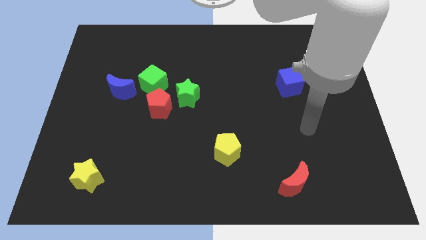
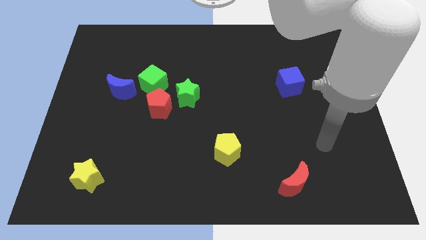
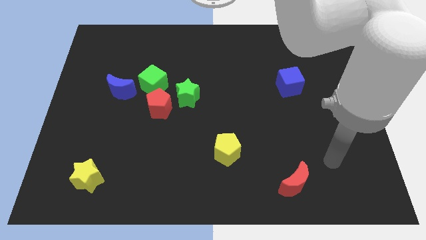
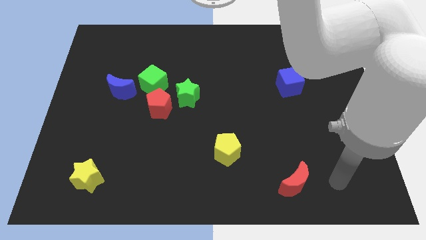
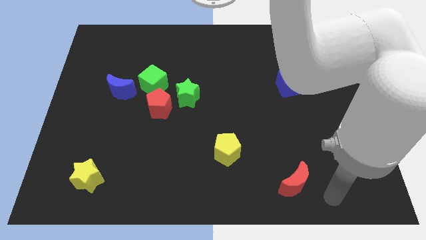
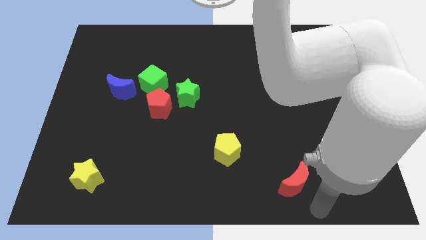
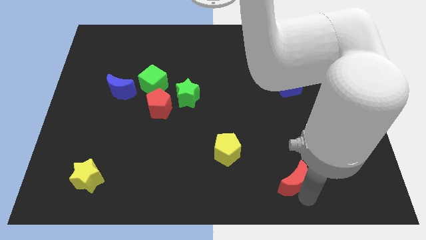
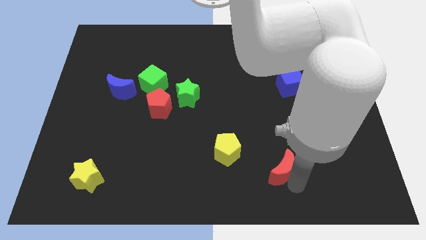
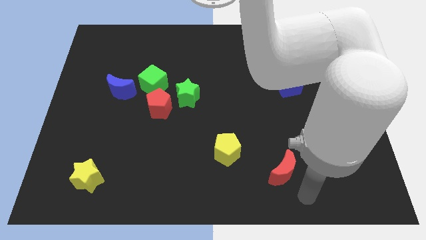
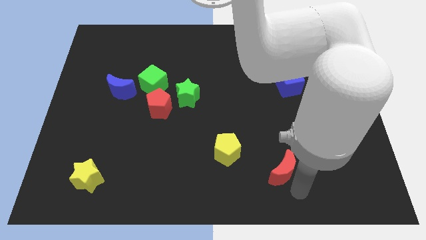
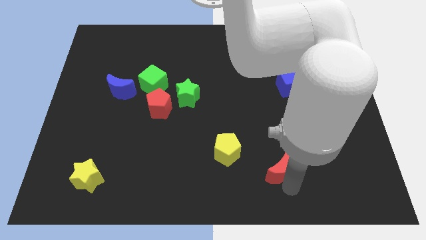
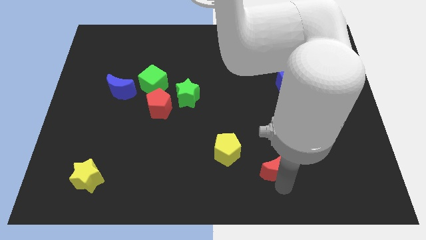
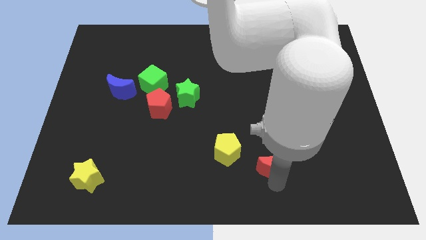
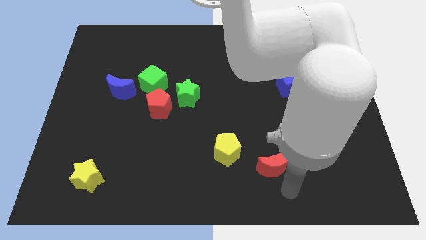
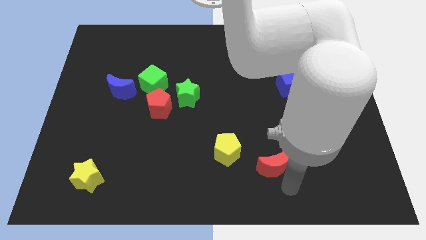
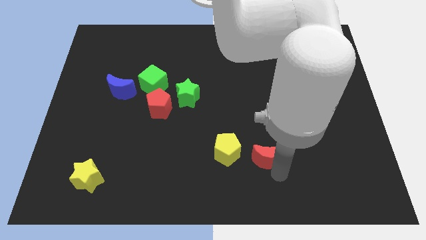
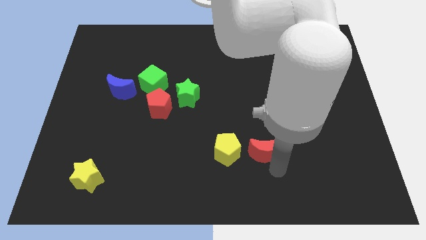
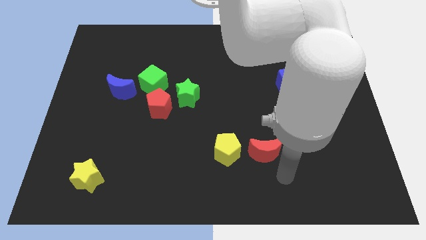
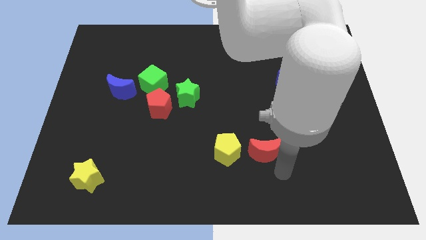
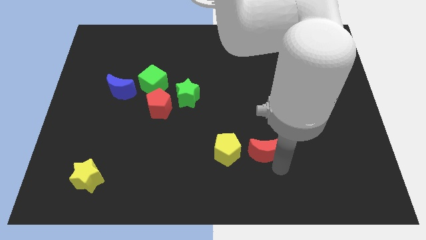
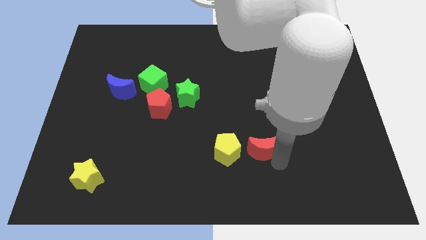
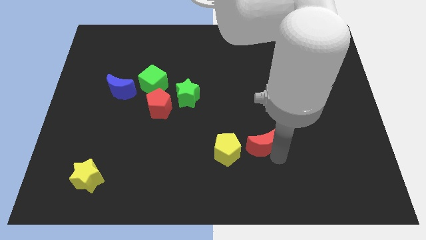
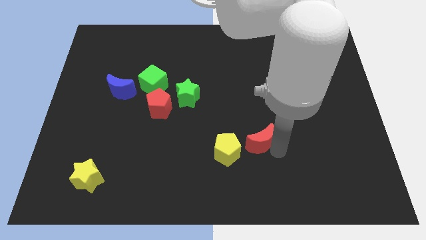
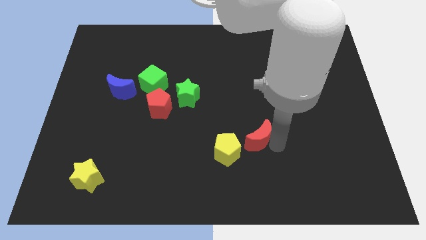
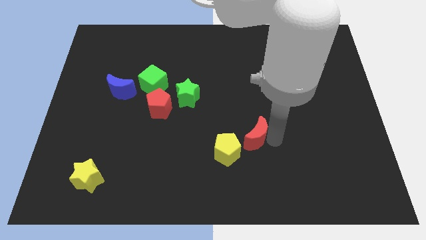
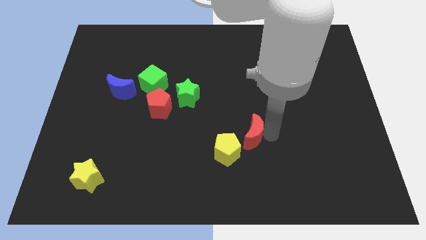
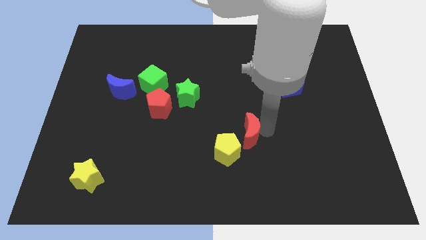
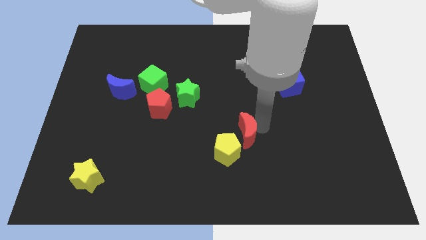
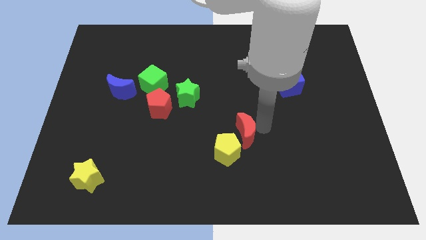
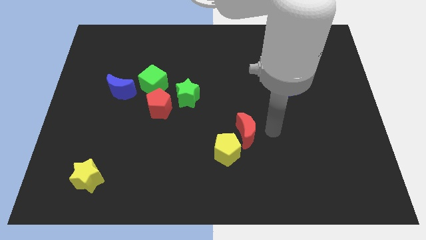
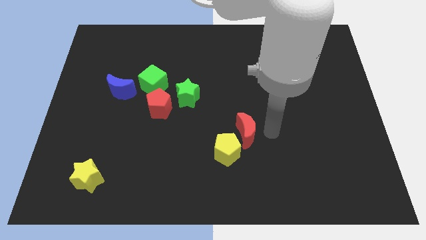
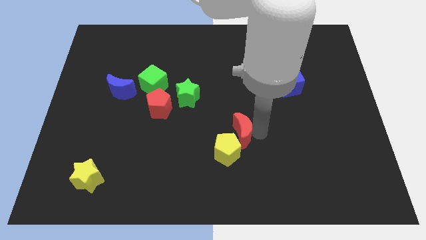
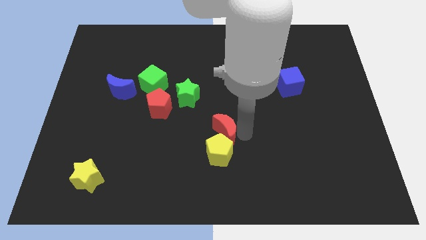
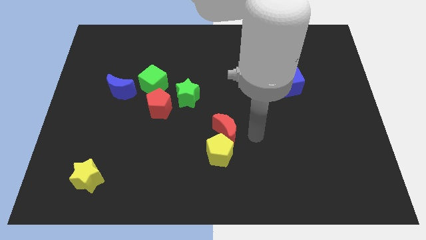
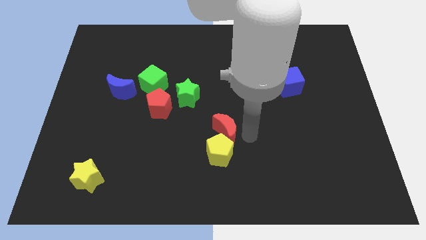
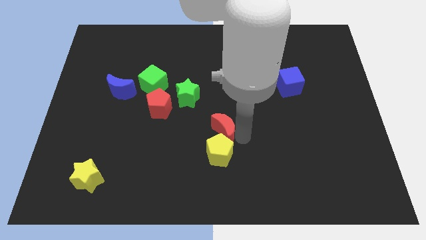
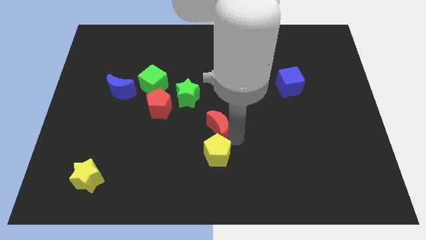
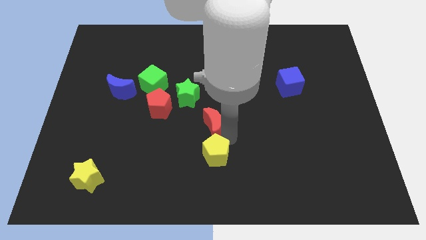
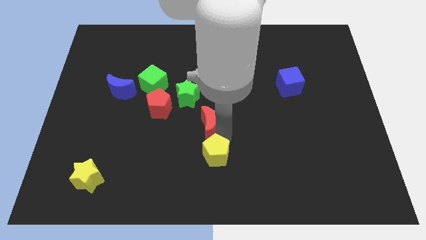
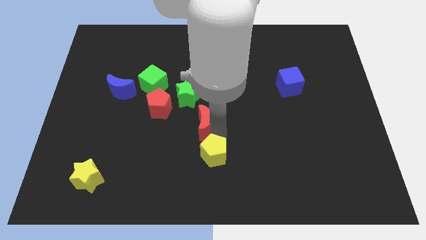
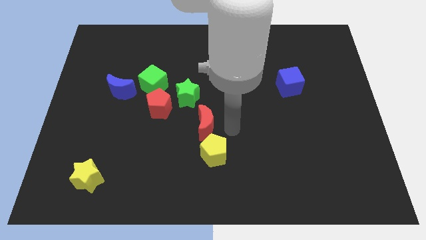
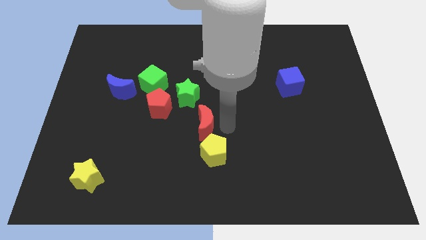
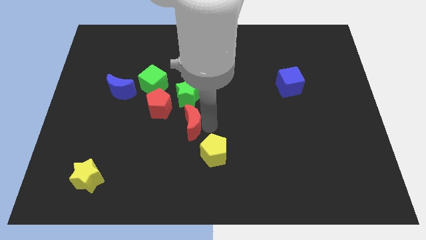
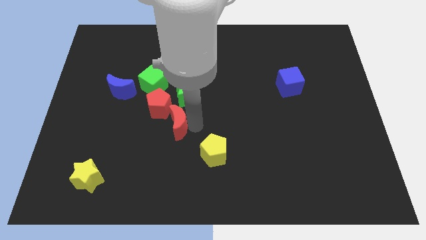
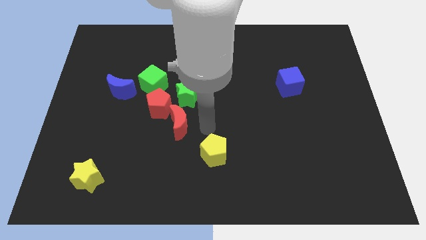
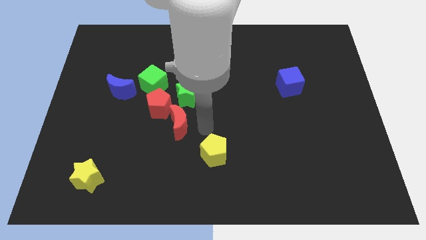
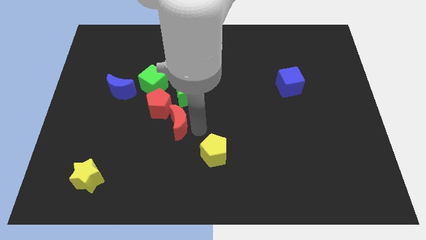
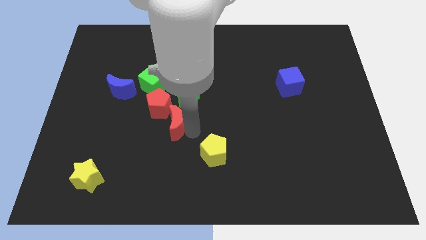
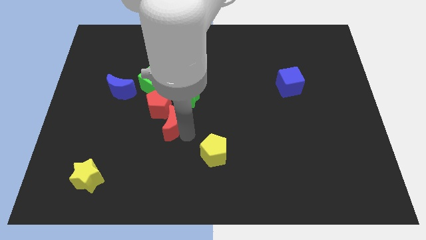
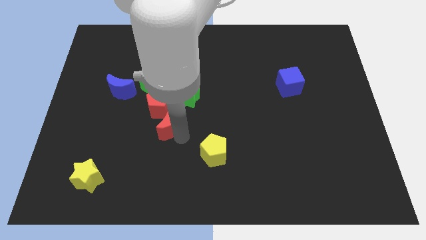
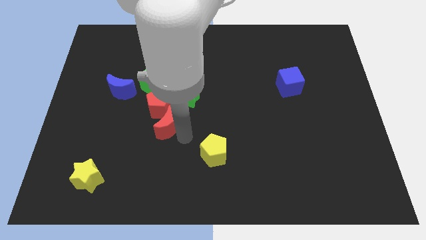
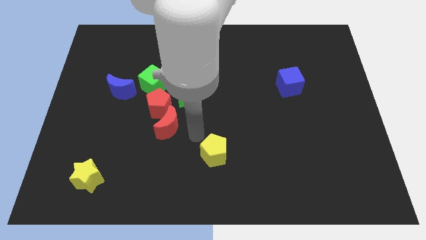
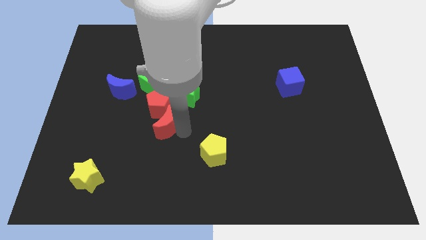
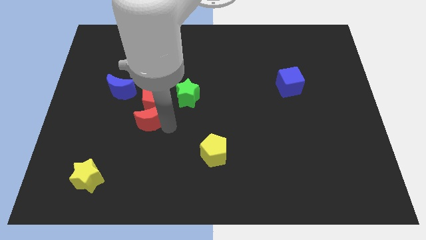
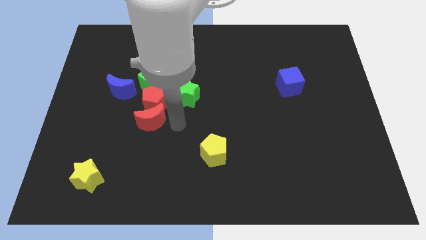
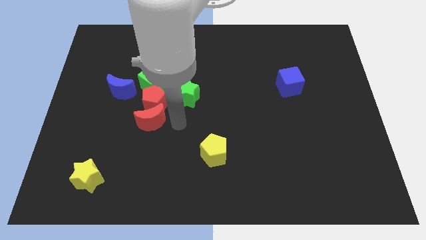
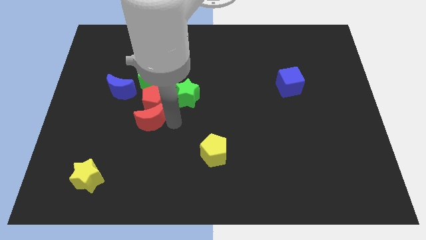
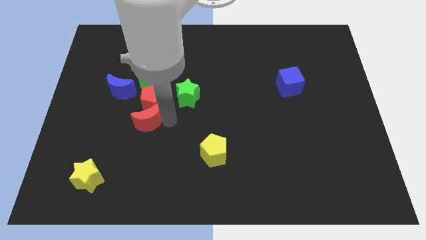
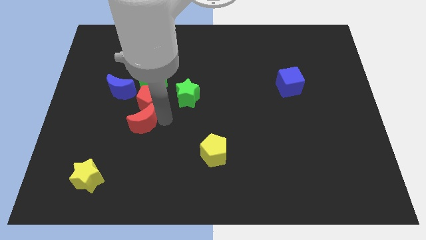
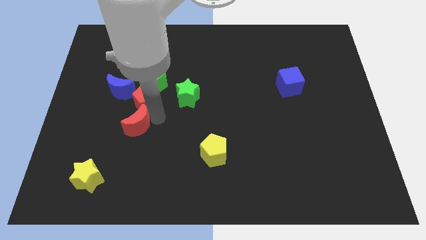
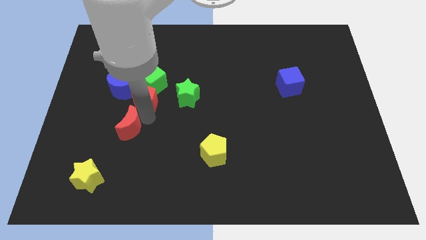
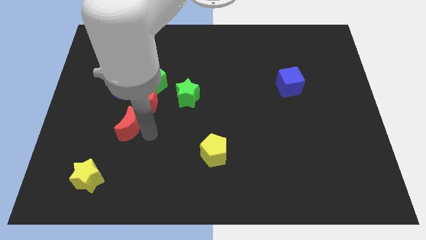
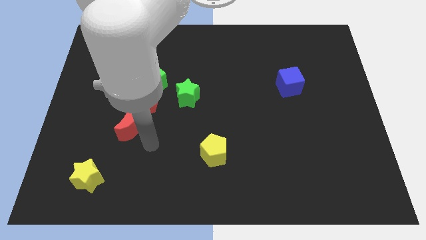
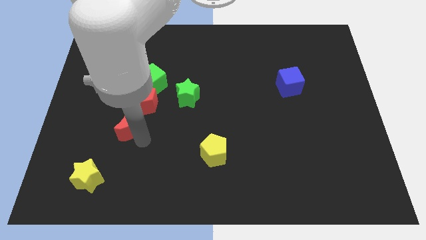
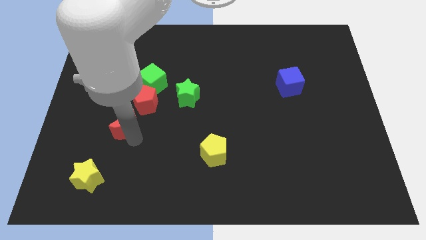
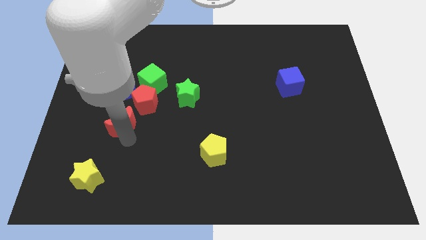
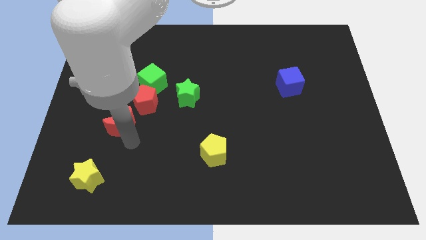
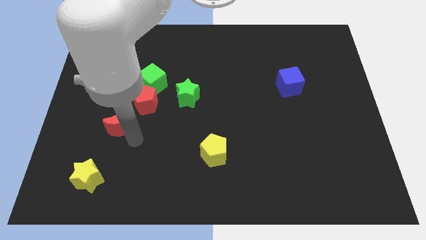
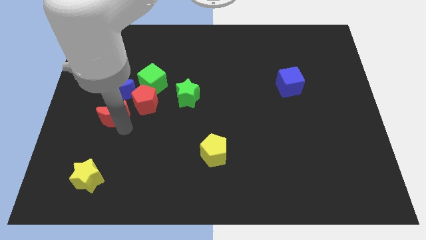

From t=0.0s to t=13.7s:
push the red moon to the left of the red pentagon
